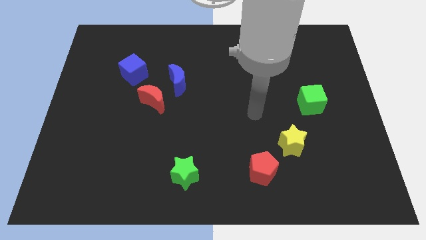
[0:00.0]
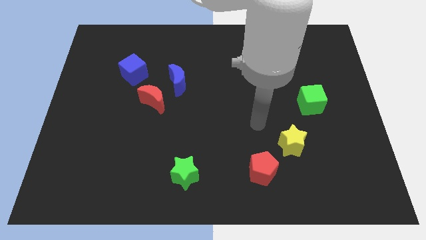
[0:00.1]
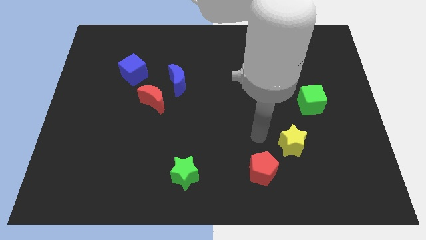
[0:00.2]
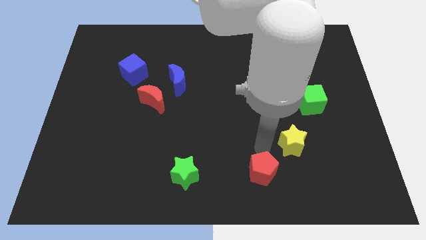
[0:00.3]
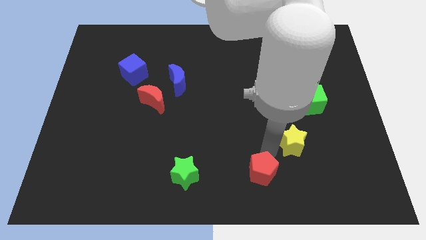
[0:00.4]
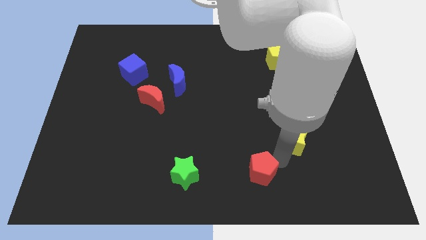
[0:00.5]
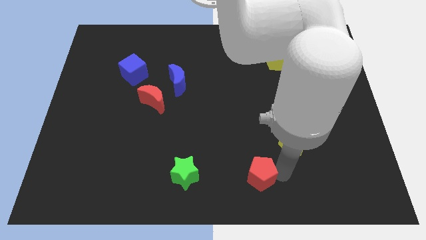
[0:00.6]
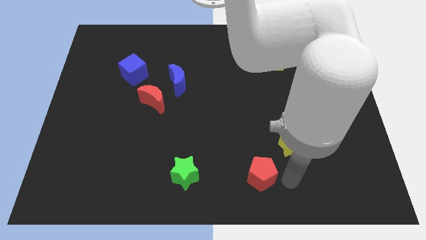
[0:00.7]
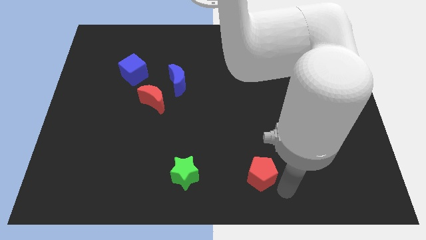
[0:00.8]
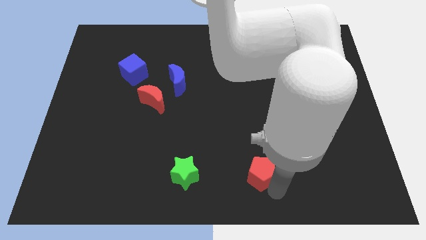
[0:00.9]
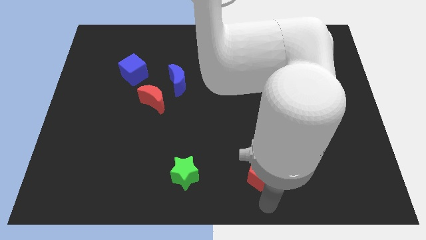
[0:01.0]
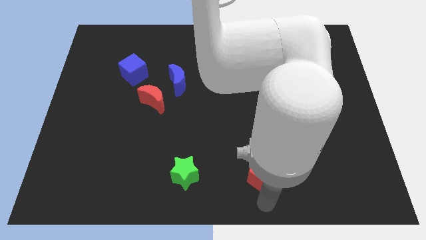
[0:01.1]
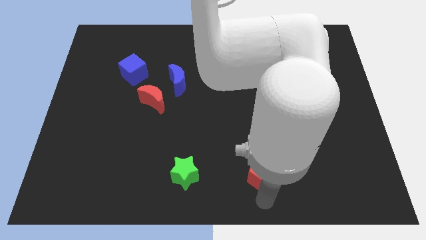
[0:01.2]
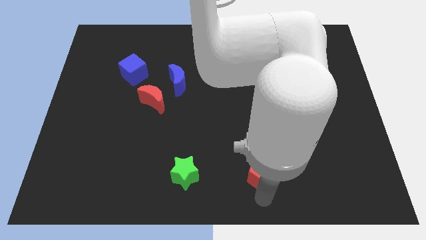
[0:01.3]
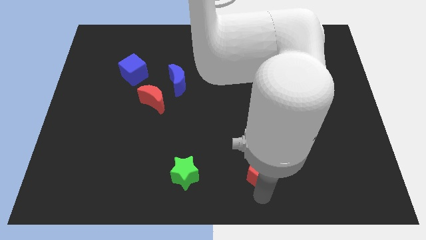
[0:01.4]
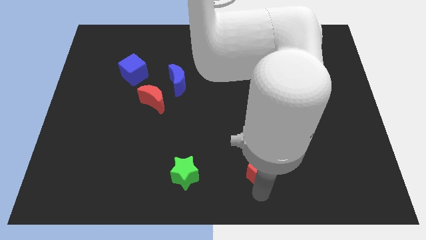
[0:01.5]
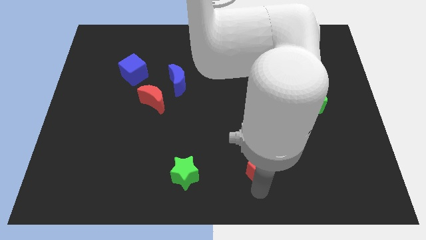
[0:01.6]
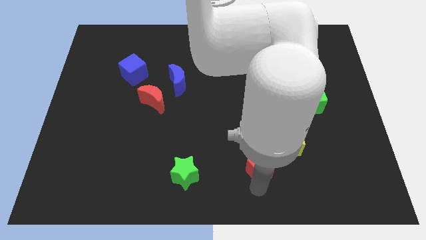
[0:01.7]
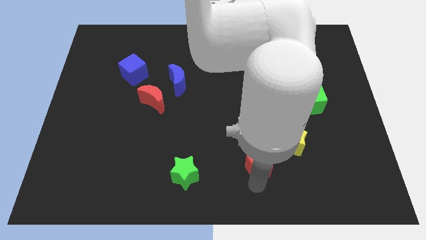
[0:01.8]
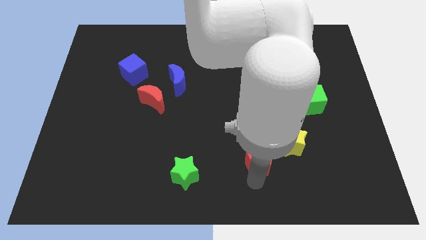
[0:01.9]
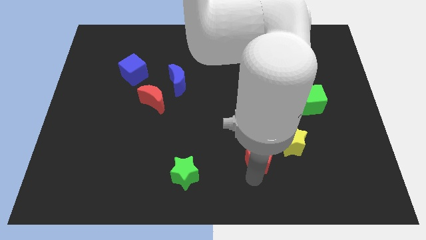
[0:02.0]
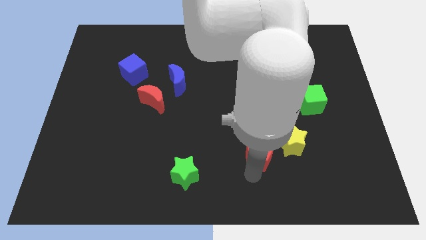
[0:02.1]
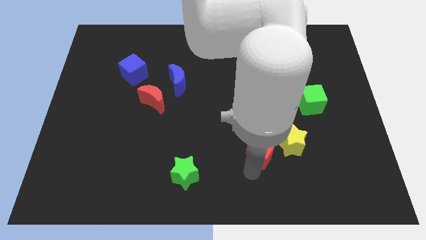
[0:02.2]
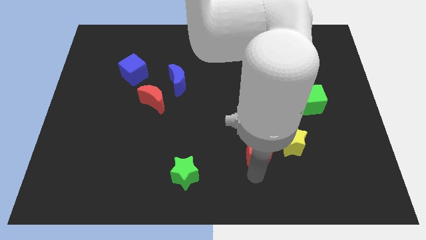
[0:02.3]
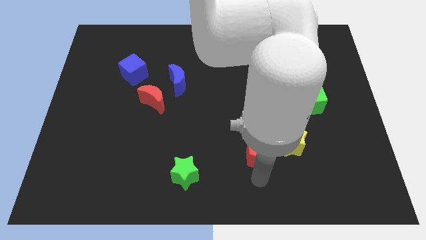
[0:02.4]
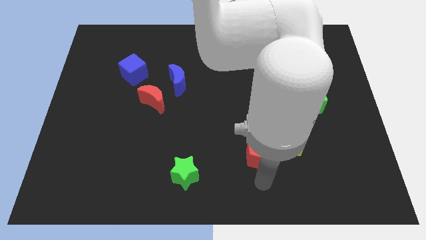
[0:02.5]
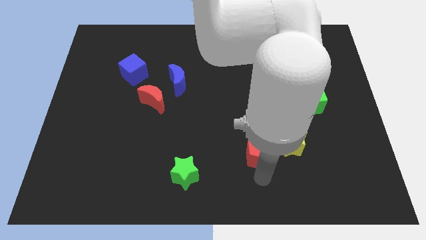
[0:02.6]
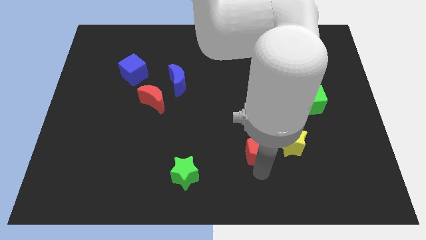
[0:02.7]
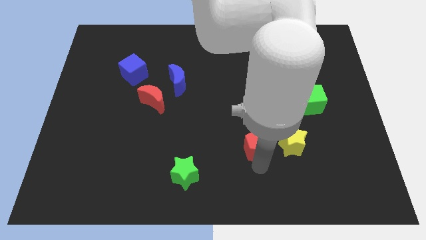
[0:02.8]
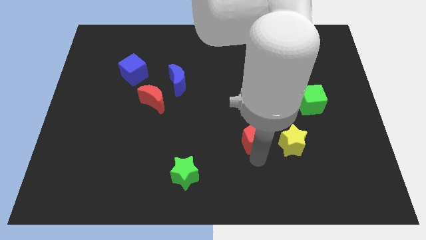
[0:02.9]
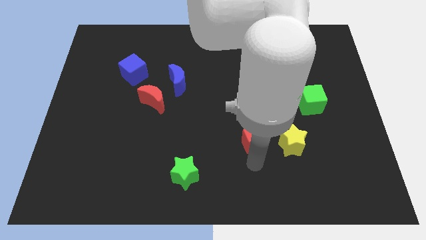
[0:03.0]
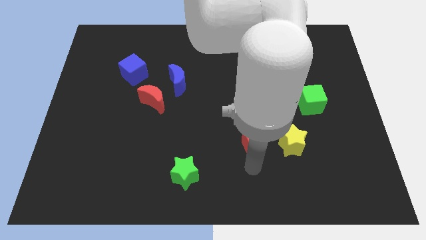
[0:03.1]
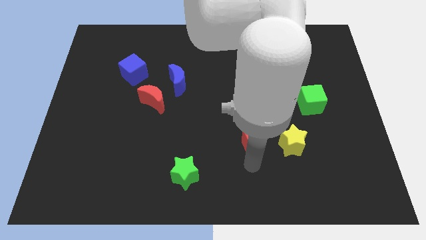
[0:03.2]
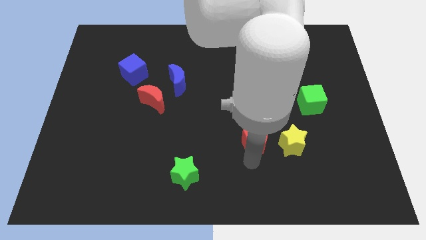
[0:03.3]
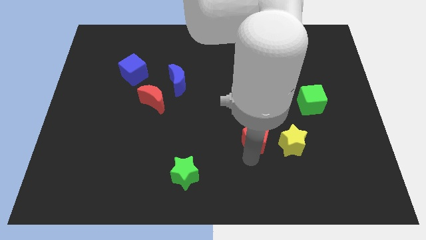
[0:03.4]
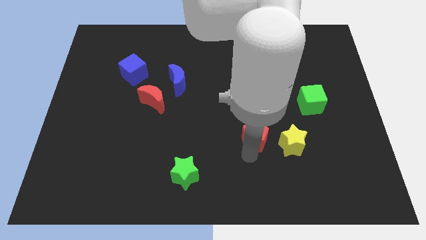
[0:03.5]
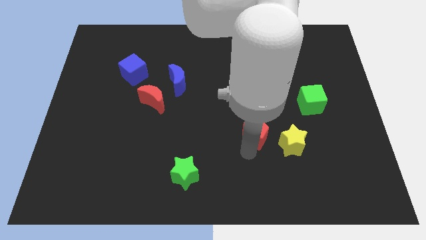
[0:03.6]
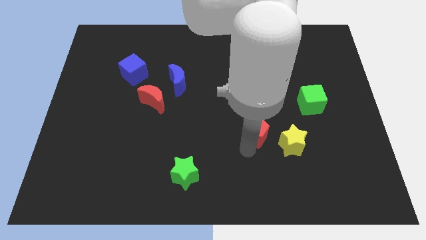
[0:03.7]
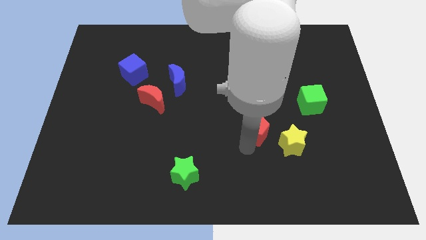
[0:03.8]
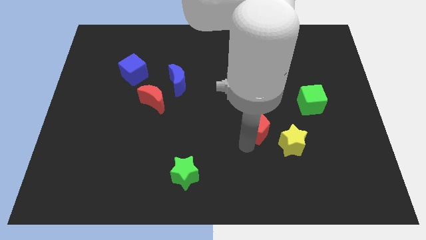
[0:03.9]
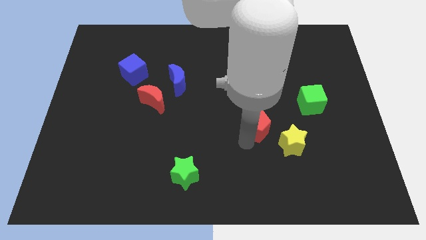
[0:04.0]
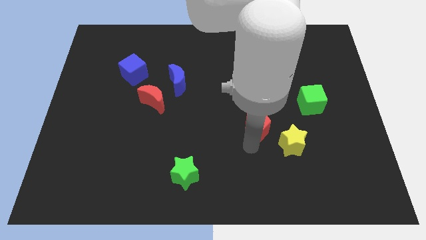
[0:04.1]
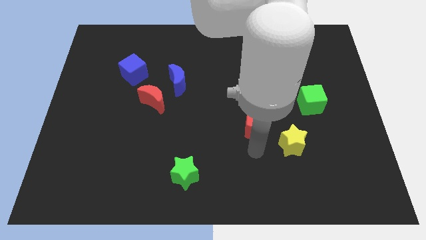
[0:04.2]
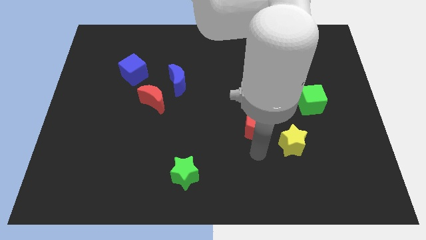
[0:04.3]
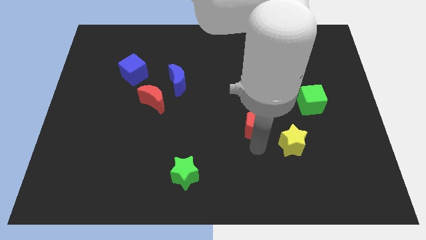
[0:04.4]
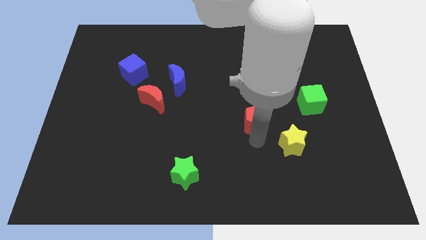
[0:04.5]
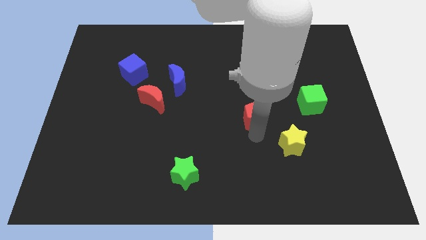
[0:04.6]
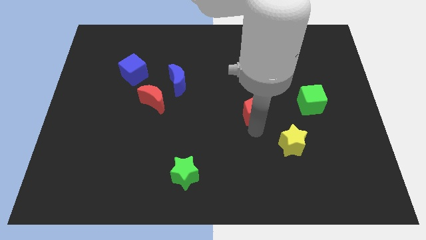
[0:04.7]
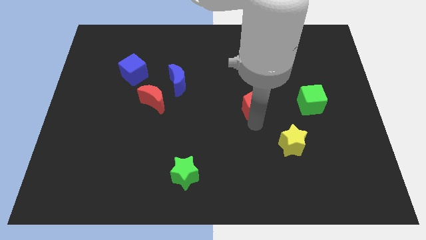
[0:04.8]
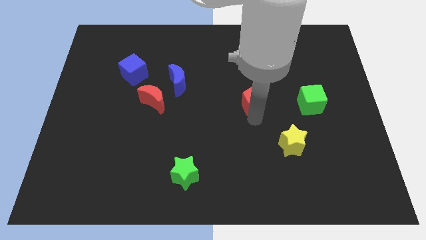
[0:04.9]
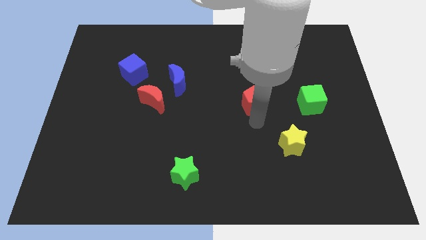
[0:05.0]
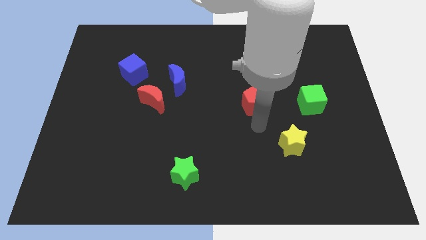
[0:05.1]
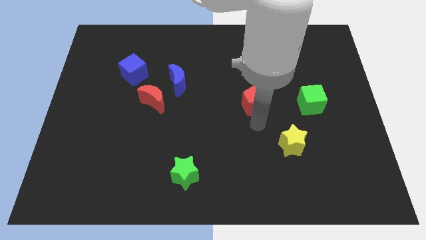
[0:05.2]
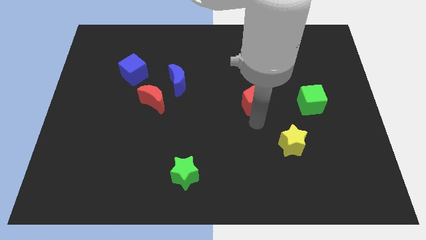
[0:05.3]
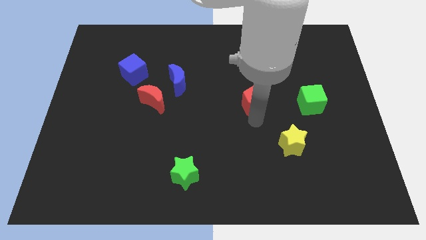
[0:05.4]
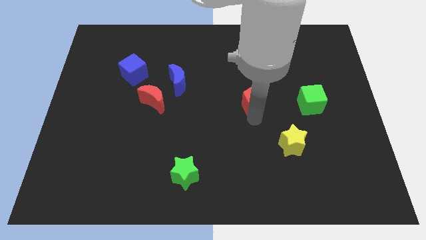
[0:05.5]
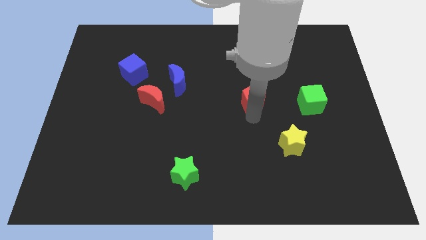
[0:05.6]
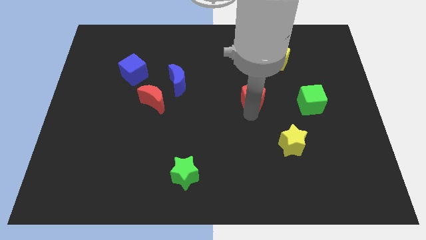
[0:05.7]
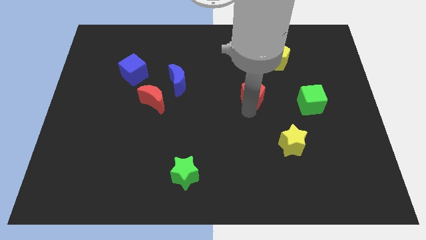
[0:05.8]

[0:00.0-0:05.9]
slide the red pentagon upwards

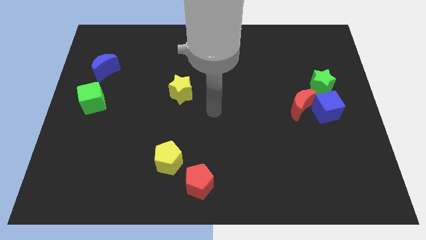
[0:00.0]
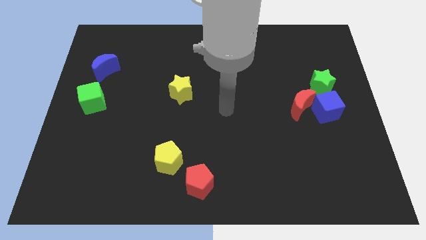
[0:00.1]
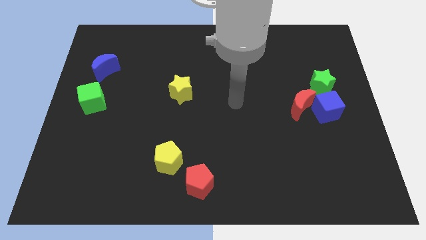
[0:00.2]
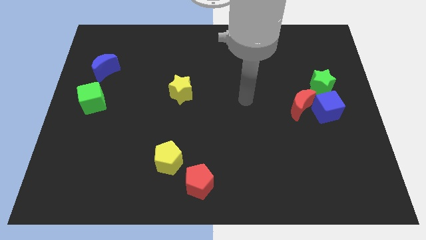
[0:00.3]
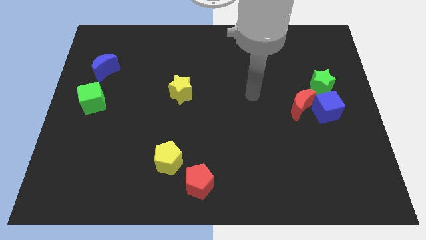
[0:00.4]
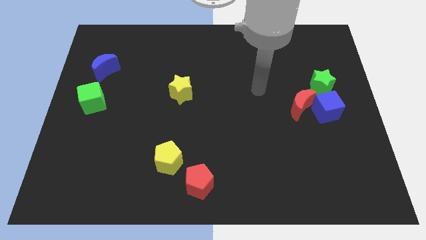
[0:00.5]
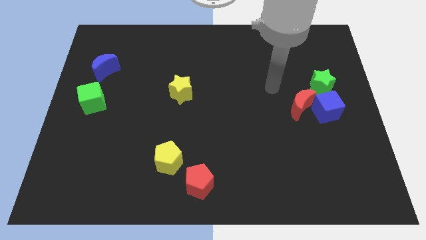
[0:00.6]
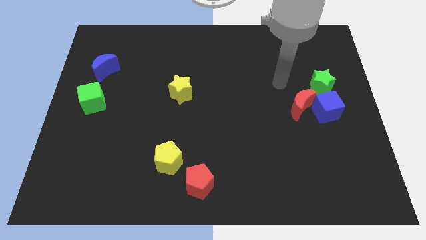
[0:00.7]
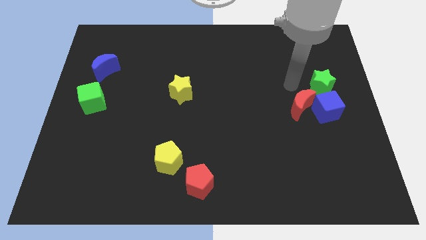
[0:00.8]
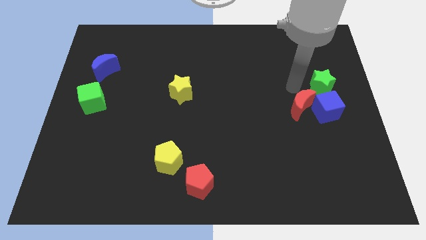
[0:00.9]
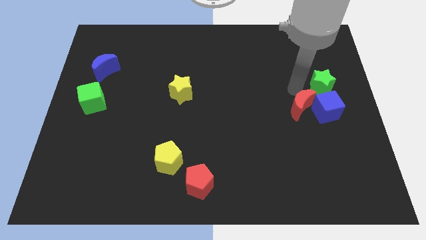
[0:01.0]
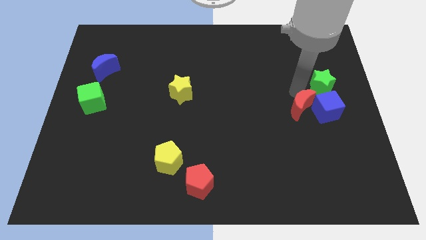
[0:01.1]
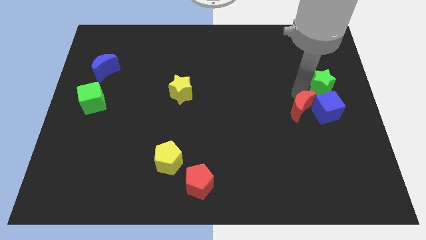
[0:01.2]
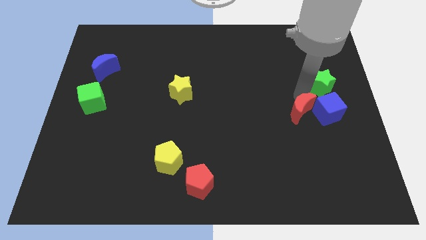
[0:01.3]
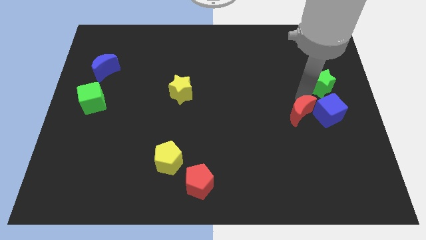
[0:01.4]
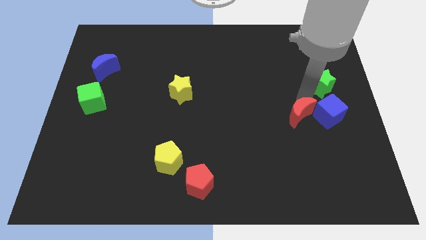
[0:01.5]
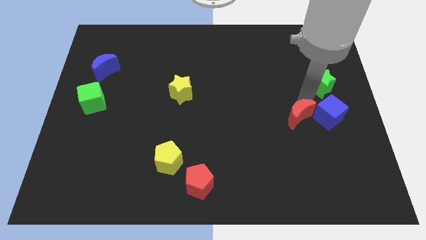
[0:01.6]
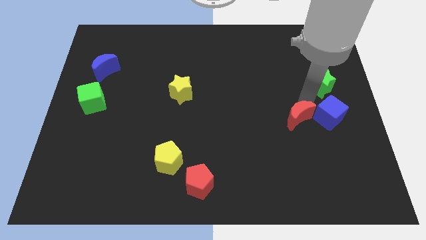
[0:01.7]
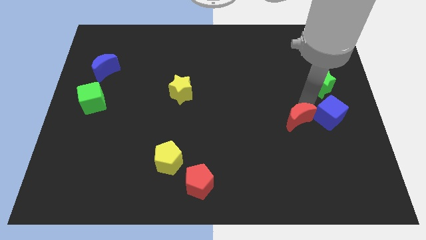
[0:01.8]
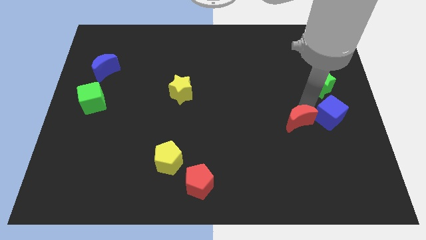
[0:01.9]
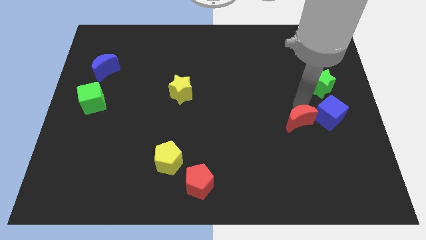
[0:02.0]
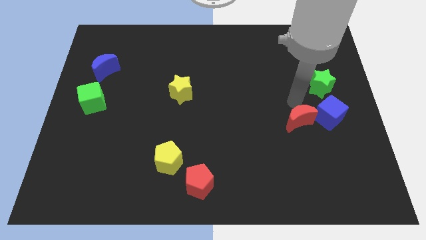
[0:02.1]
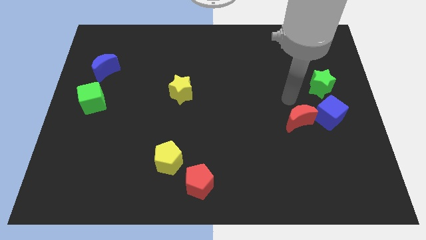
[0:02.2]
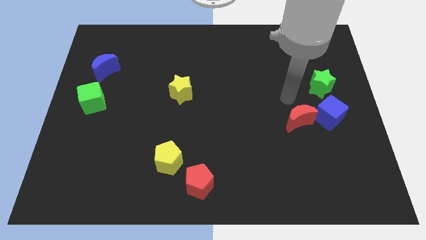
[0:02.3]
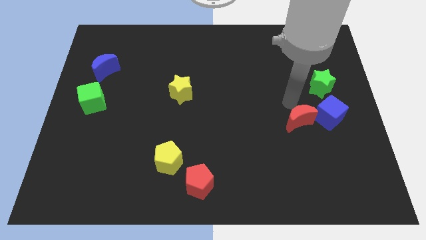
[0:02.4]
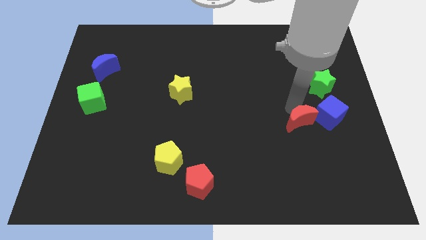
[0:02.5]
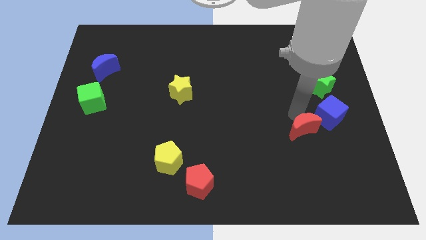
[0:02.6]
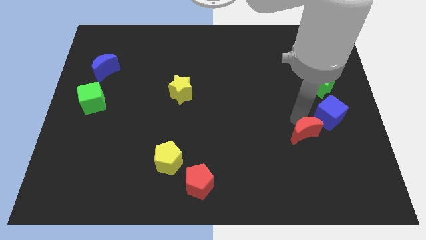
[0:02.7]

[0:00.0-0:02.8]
slightly move the red moon down
